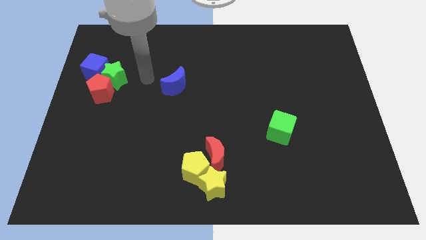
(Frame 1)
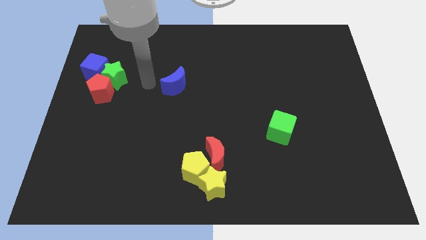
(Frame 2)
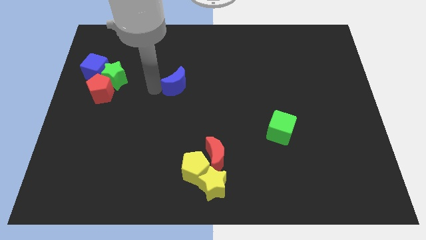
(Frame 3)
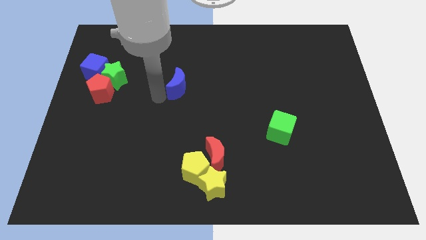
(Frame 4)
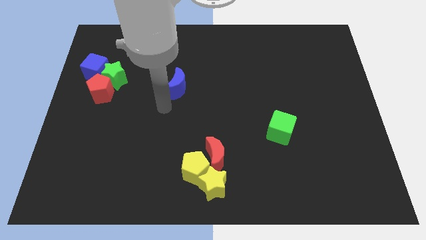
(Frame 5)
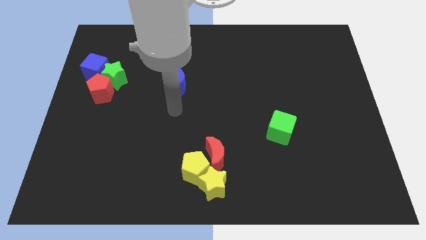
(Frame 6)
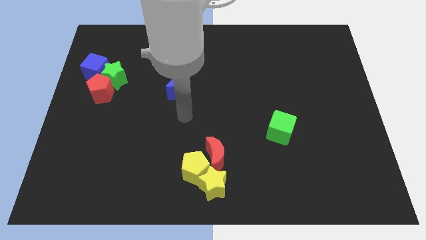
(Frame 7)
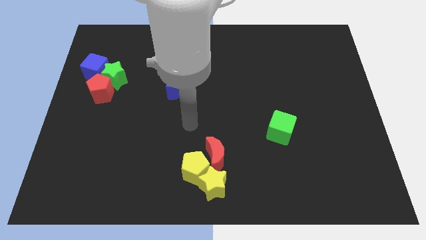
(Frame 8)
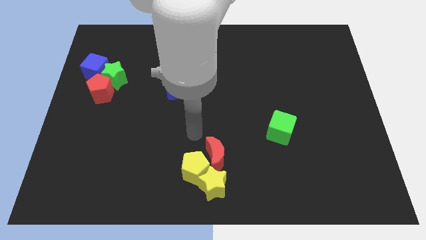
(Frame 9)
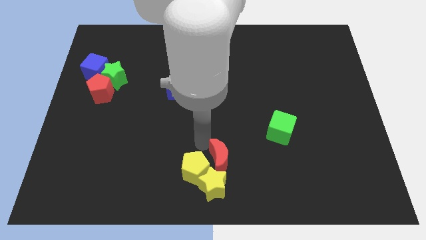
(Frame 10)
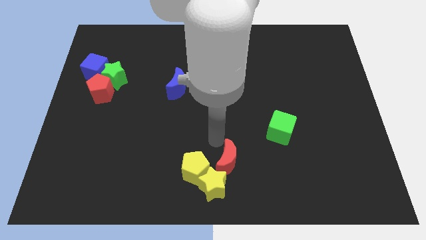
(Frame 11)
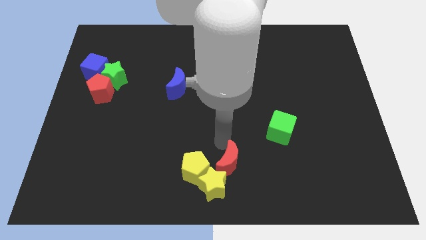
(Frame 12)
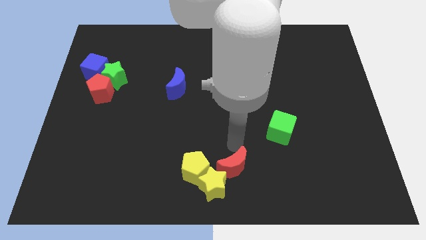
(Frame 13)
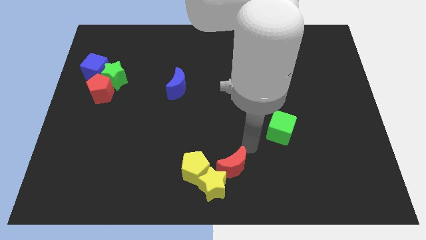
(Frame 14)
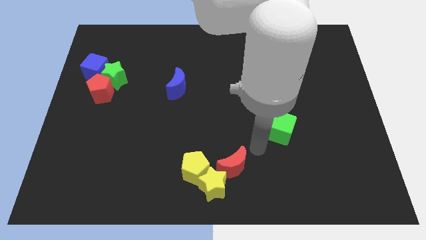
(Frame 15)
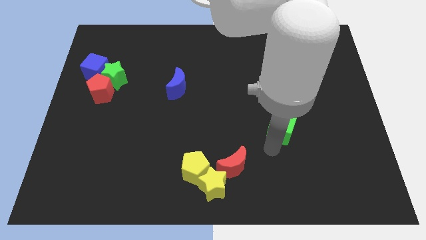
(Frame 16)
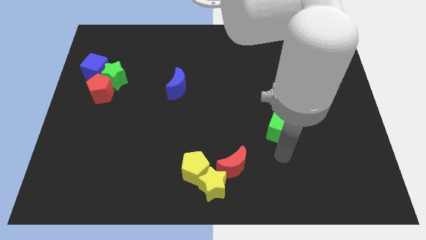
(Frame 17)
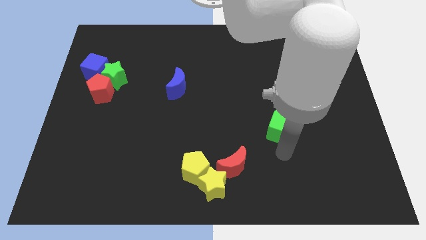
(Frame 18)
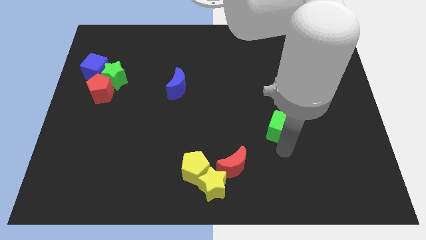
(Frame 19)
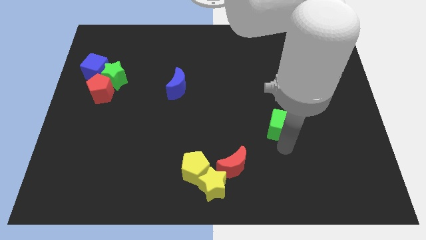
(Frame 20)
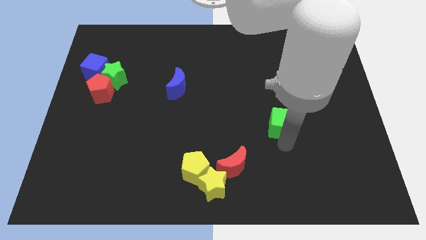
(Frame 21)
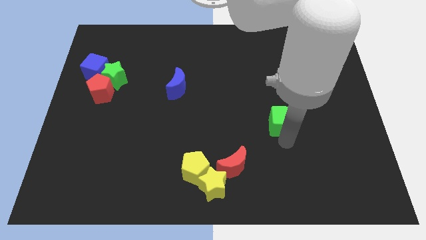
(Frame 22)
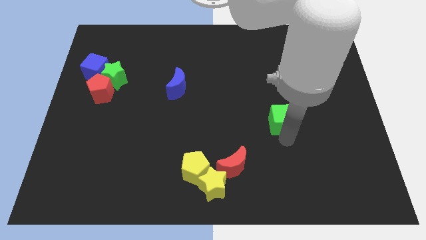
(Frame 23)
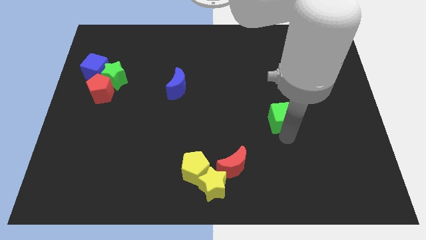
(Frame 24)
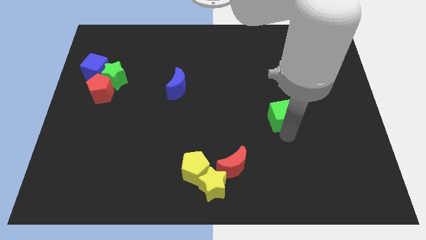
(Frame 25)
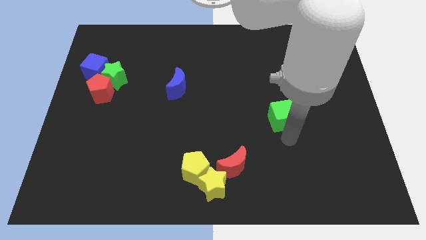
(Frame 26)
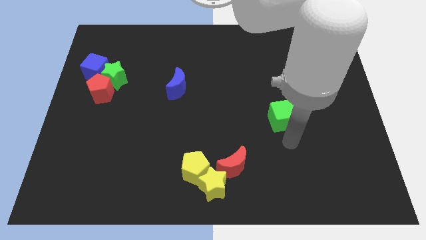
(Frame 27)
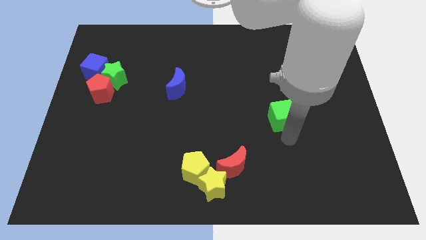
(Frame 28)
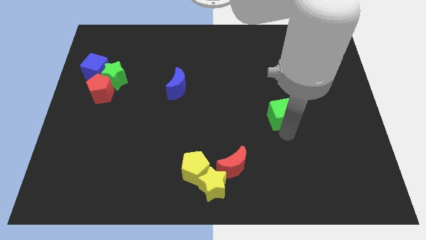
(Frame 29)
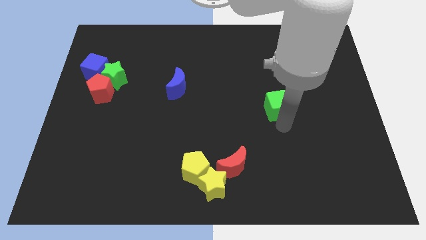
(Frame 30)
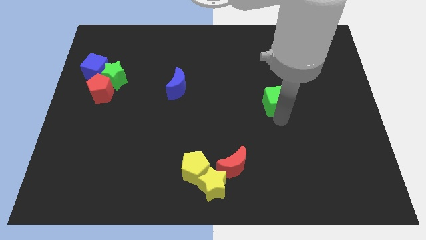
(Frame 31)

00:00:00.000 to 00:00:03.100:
slightly slide the green cube up

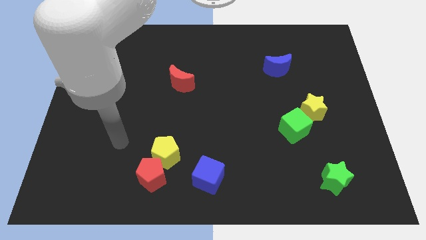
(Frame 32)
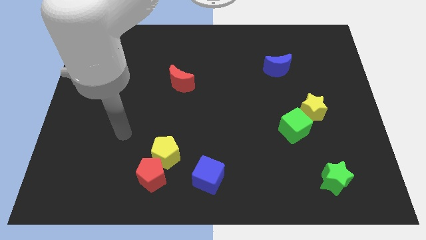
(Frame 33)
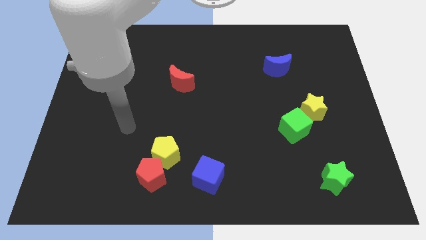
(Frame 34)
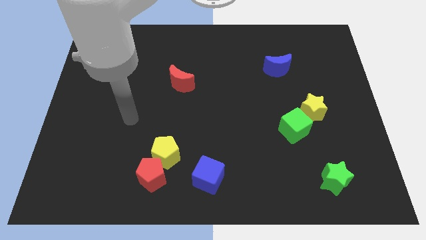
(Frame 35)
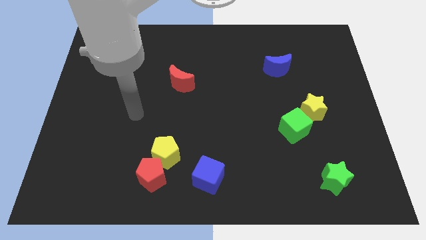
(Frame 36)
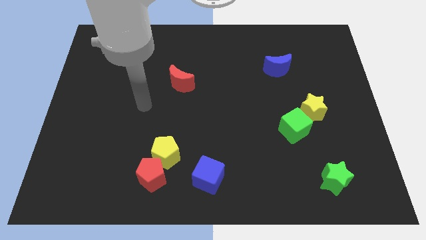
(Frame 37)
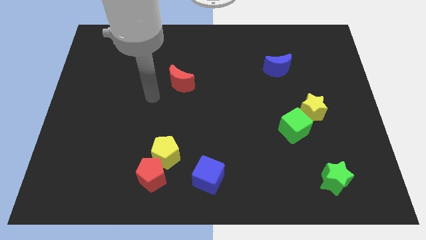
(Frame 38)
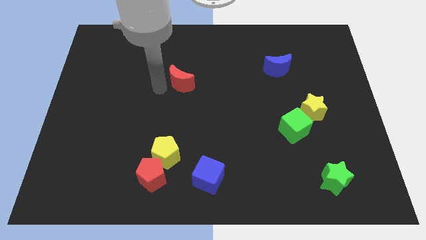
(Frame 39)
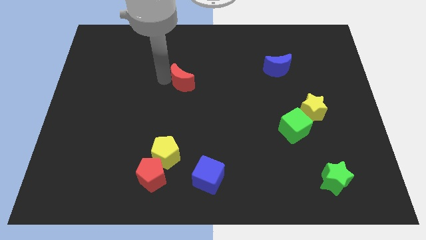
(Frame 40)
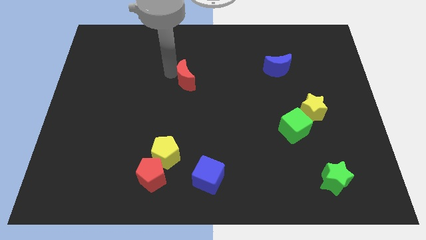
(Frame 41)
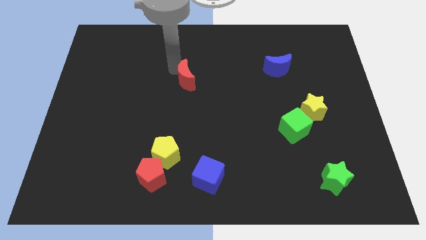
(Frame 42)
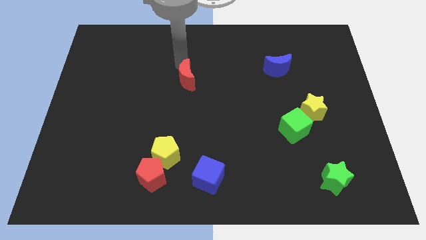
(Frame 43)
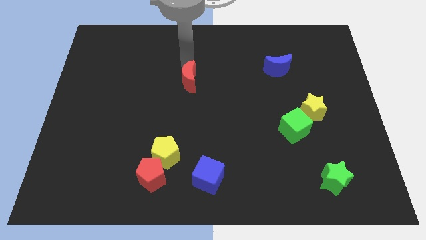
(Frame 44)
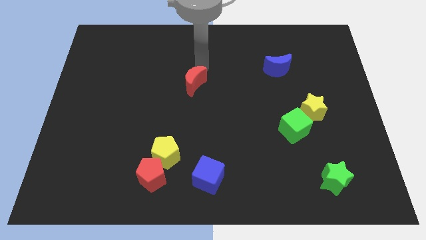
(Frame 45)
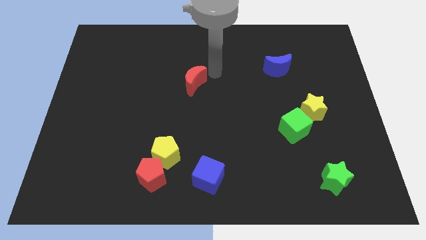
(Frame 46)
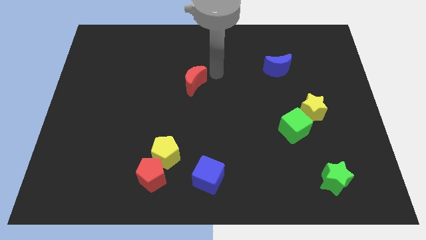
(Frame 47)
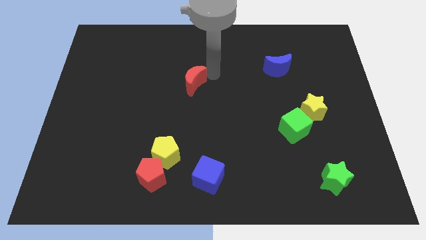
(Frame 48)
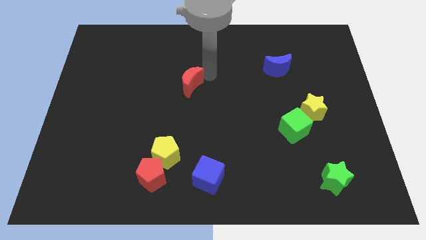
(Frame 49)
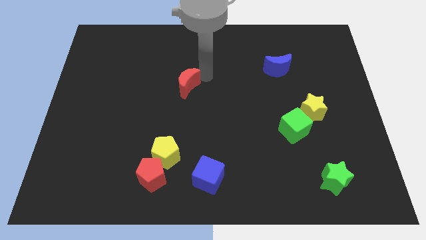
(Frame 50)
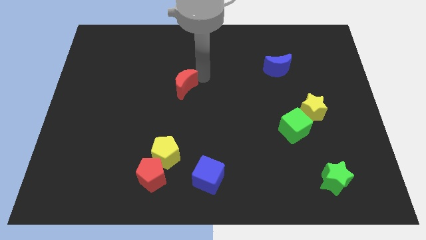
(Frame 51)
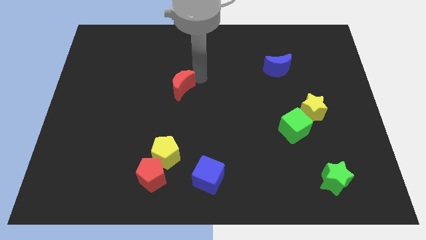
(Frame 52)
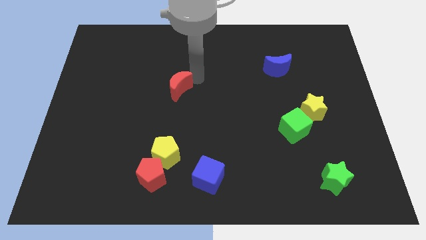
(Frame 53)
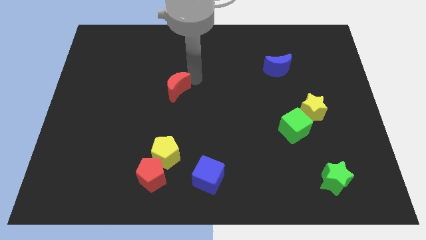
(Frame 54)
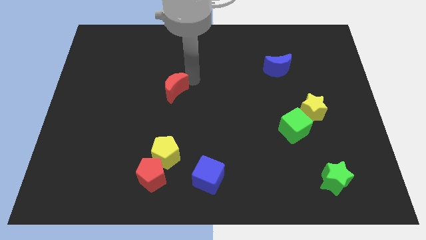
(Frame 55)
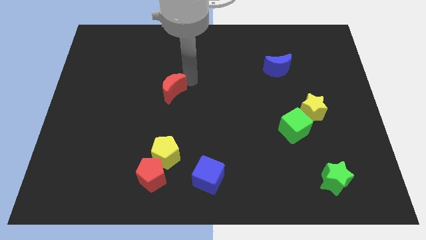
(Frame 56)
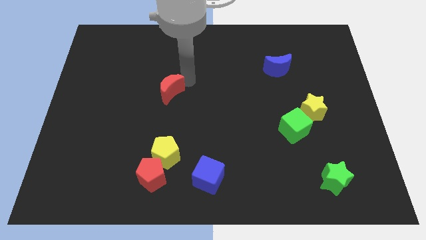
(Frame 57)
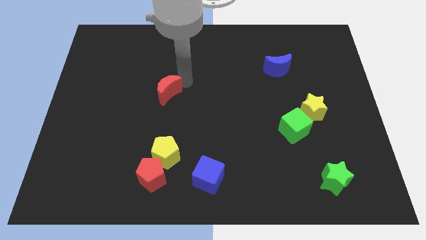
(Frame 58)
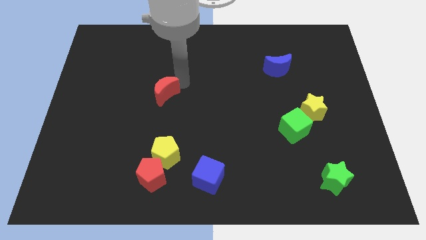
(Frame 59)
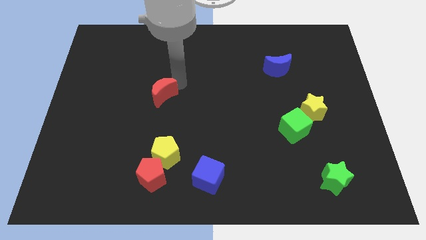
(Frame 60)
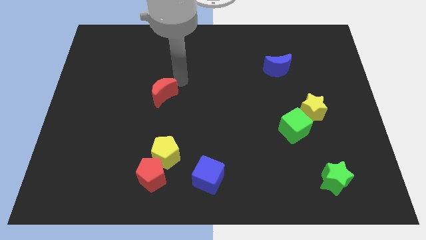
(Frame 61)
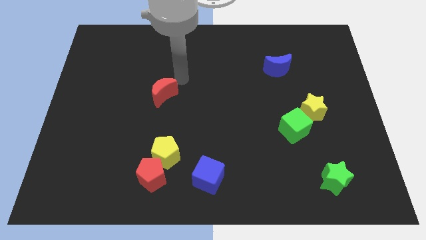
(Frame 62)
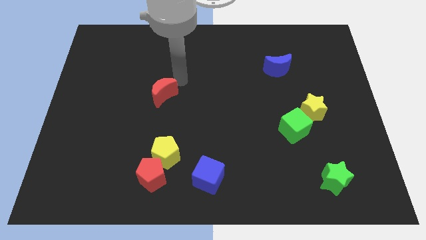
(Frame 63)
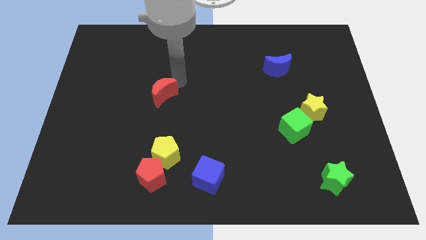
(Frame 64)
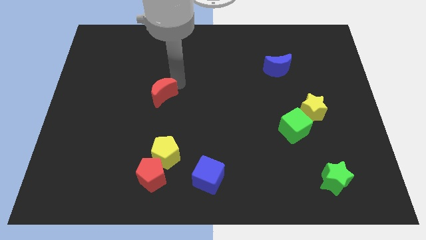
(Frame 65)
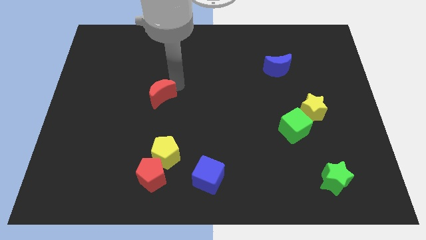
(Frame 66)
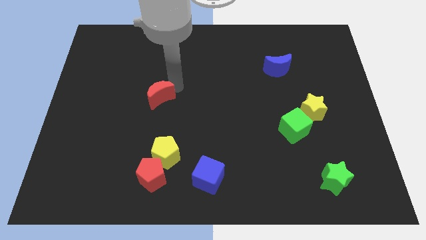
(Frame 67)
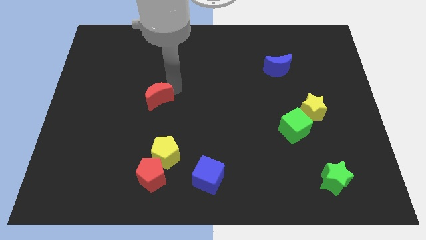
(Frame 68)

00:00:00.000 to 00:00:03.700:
push the red moon slightly downwards and to the left diagonally

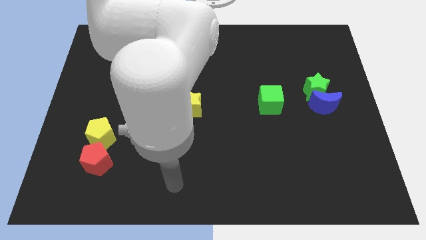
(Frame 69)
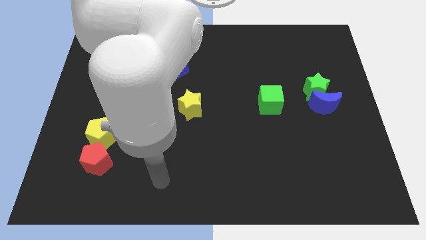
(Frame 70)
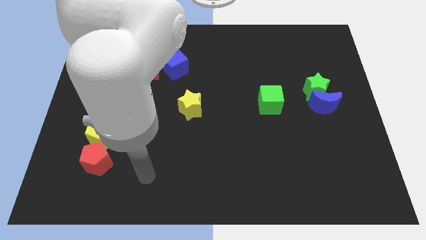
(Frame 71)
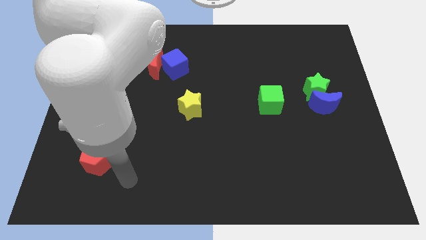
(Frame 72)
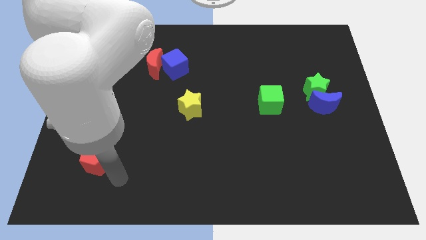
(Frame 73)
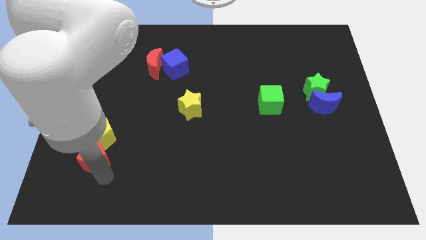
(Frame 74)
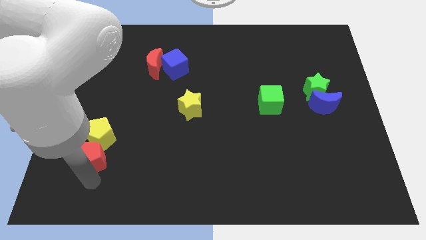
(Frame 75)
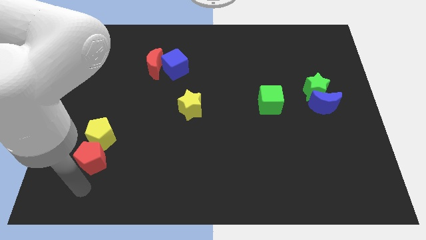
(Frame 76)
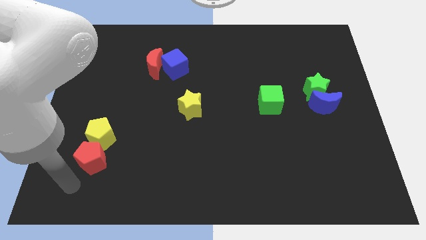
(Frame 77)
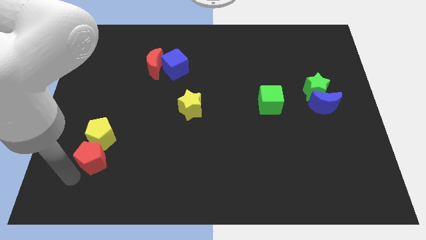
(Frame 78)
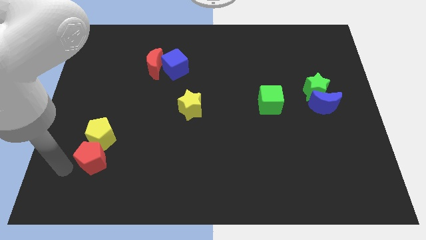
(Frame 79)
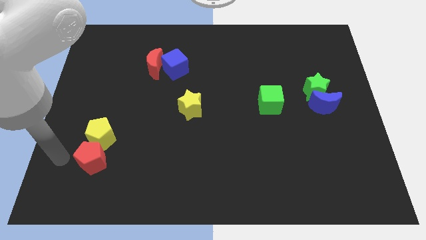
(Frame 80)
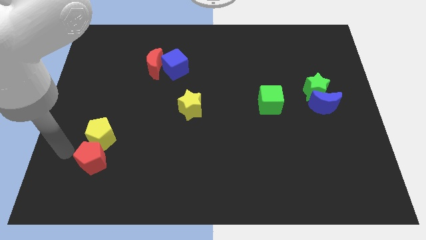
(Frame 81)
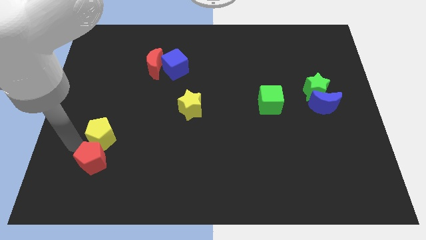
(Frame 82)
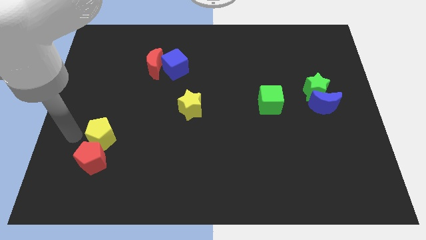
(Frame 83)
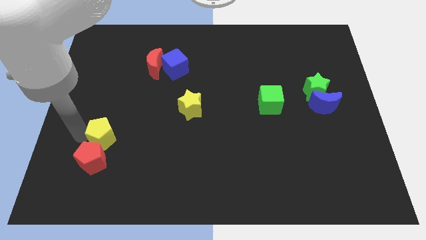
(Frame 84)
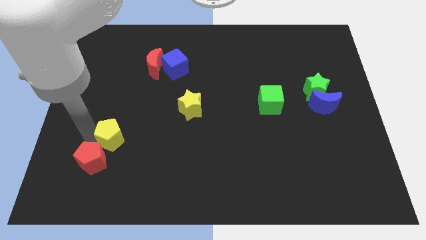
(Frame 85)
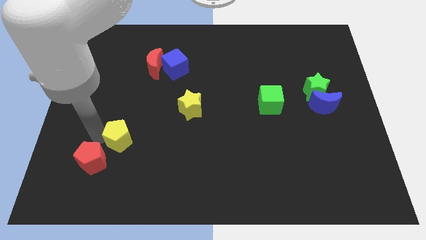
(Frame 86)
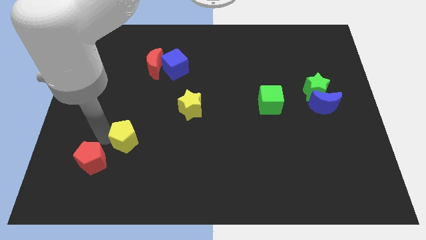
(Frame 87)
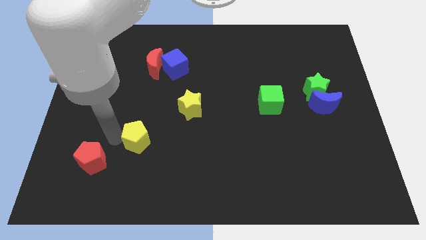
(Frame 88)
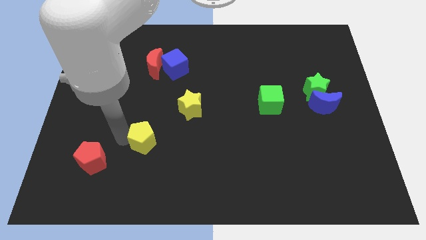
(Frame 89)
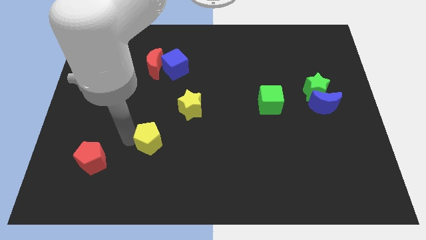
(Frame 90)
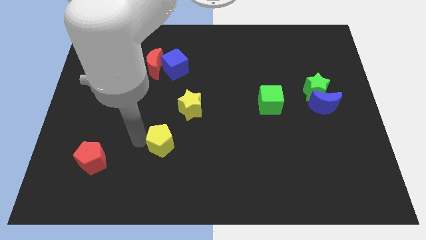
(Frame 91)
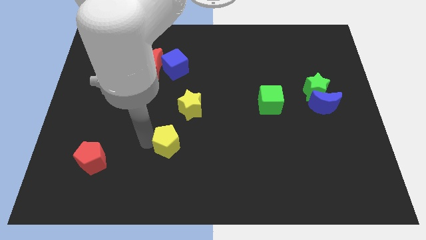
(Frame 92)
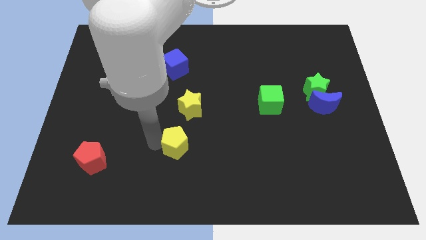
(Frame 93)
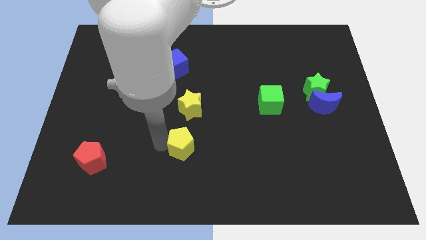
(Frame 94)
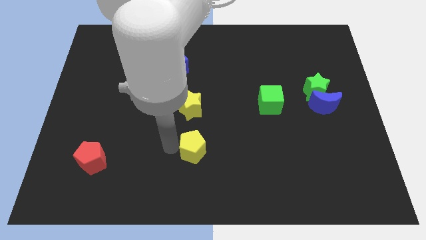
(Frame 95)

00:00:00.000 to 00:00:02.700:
push the yellow pentagon to the right
